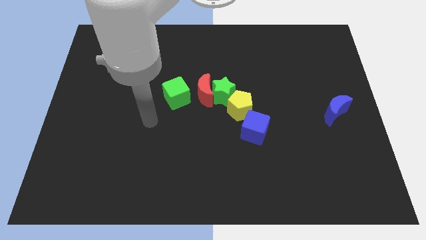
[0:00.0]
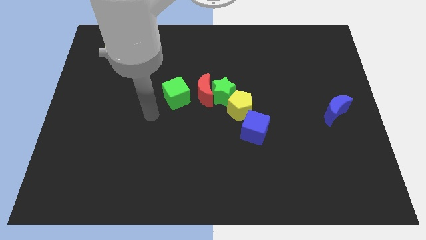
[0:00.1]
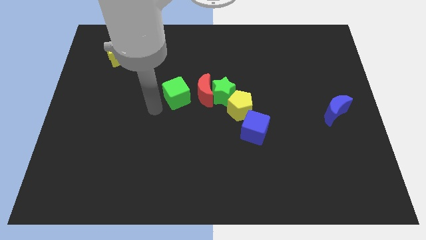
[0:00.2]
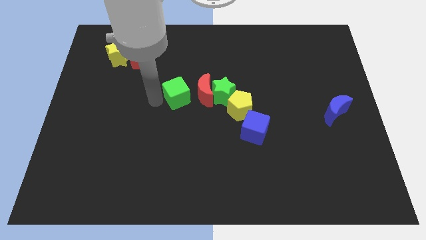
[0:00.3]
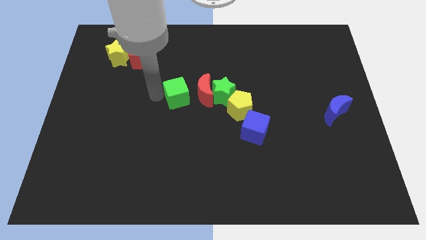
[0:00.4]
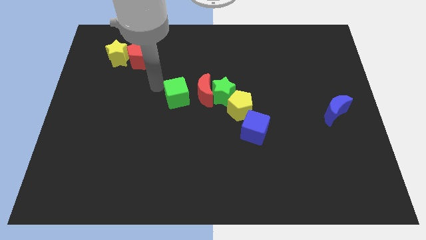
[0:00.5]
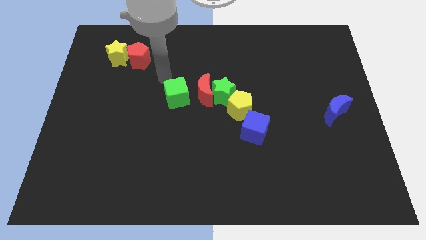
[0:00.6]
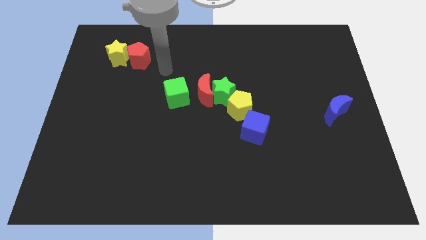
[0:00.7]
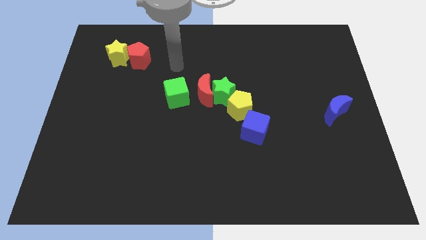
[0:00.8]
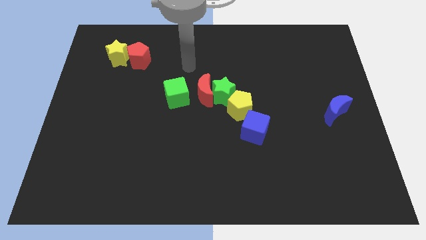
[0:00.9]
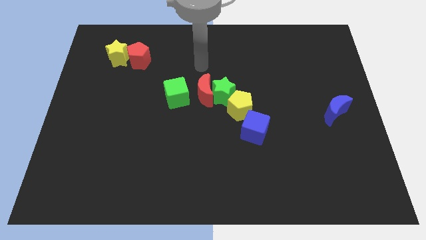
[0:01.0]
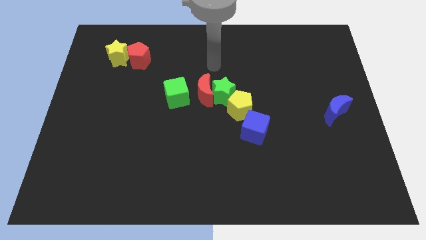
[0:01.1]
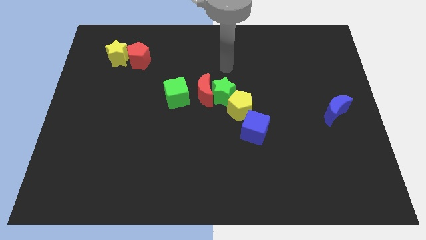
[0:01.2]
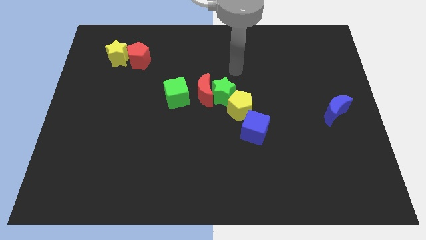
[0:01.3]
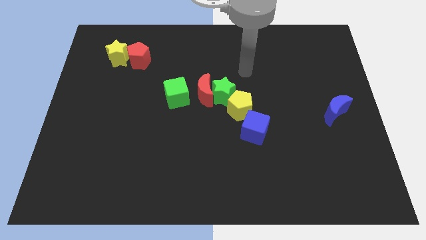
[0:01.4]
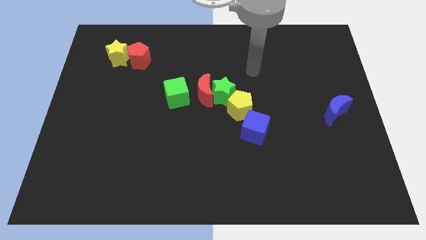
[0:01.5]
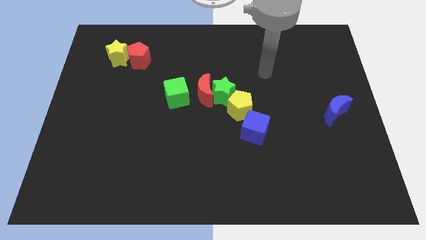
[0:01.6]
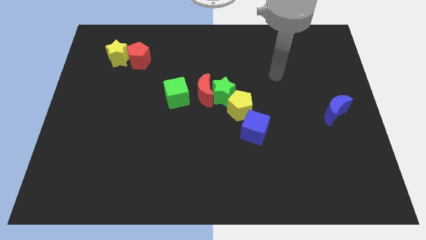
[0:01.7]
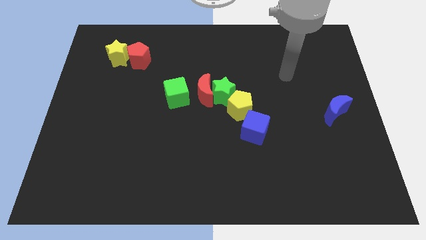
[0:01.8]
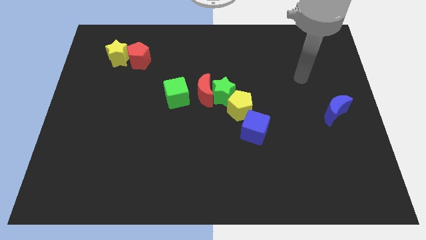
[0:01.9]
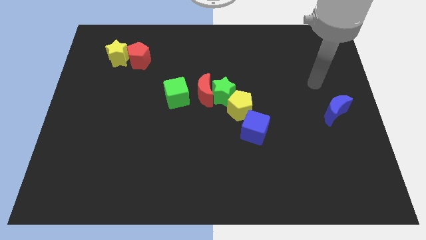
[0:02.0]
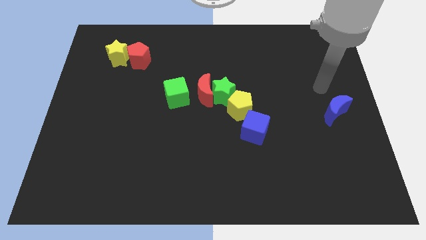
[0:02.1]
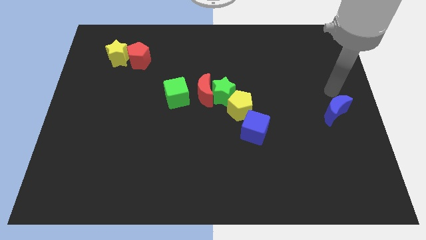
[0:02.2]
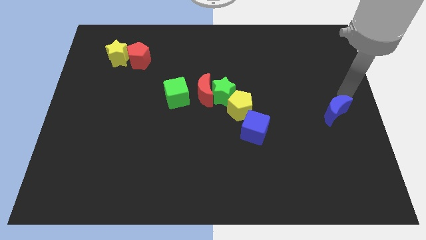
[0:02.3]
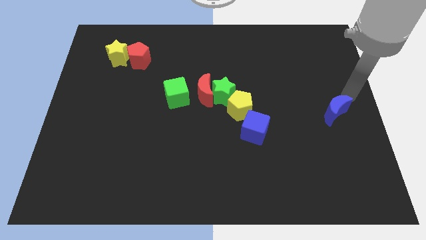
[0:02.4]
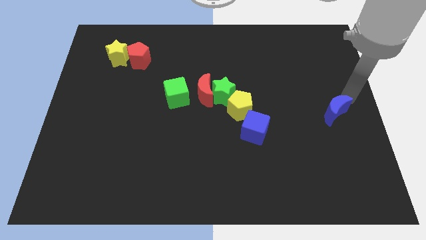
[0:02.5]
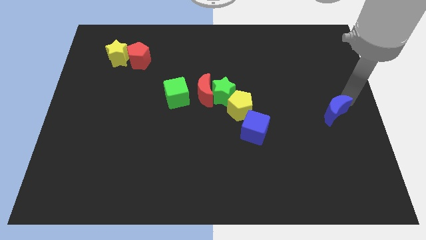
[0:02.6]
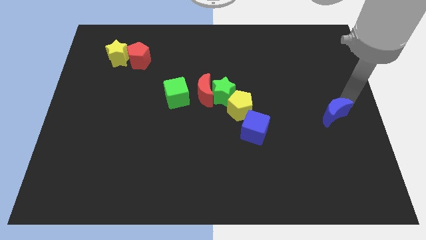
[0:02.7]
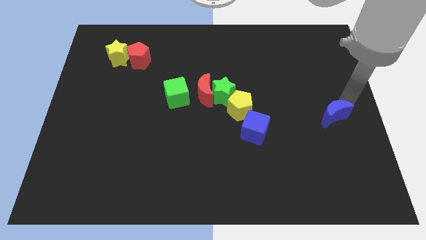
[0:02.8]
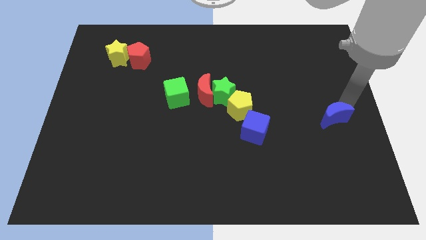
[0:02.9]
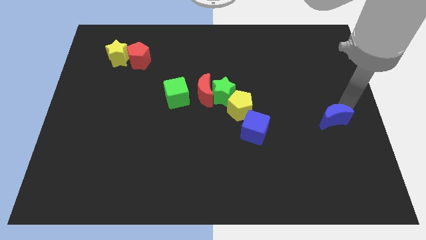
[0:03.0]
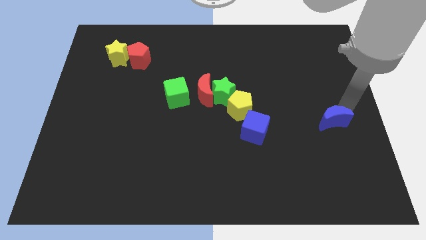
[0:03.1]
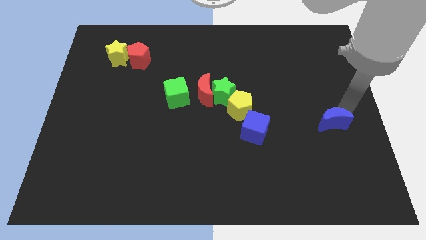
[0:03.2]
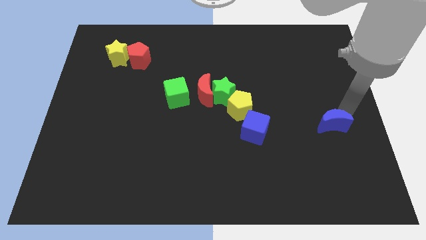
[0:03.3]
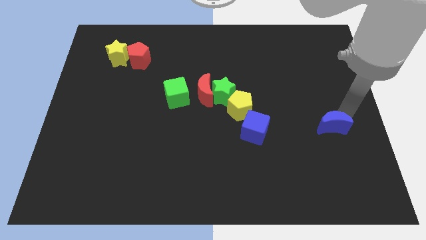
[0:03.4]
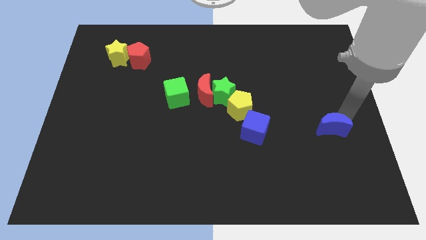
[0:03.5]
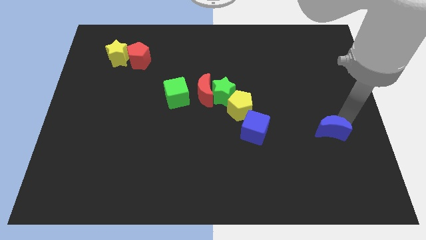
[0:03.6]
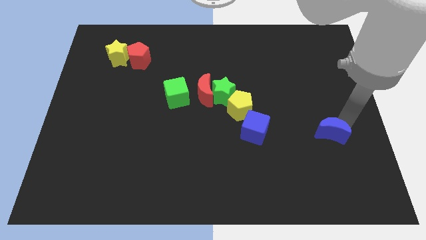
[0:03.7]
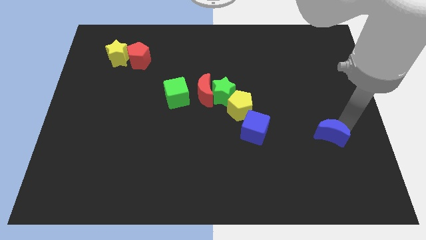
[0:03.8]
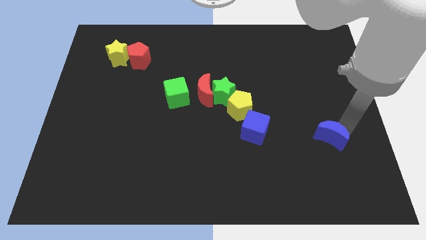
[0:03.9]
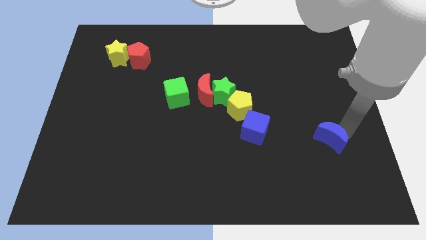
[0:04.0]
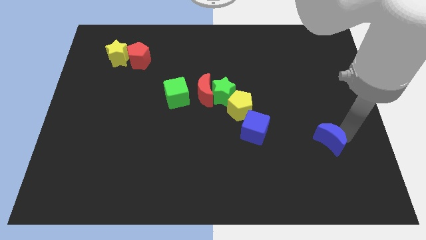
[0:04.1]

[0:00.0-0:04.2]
slightly slide the blue moon down and then to the left

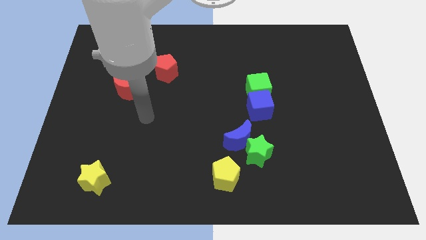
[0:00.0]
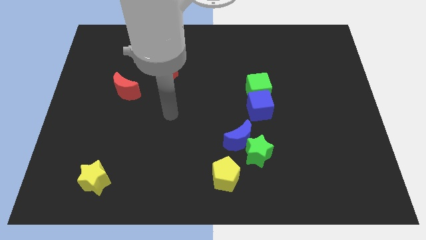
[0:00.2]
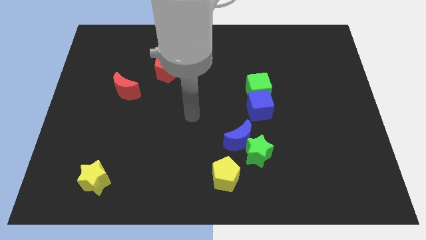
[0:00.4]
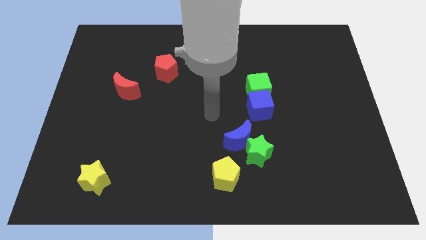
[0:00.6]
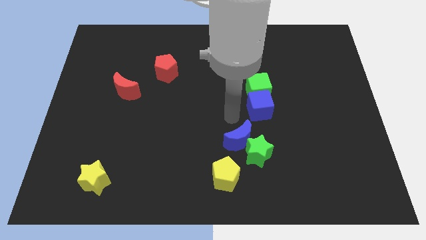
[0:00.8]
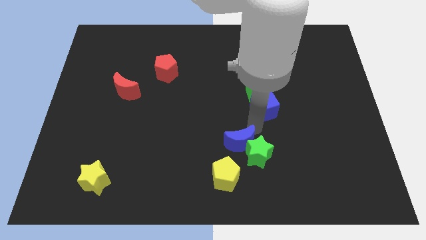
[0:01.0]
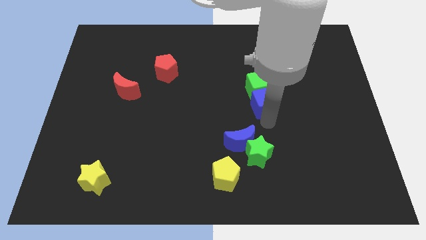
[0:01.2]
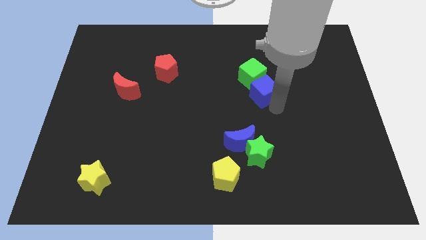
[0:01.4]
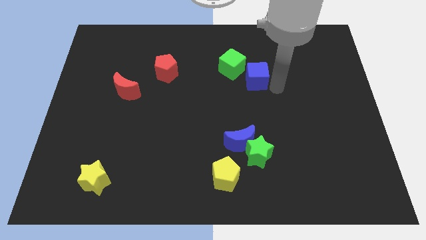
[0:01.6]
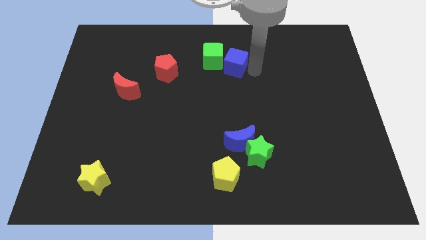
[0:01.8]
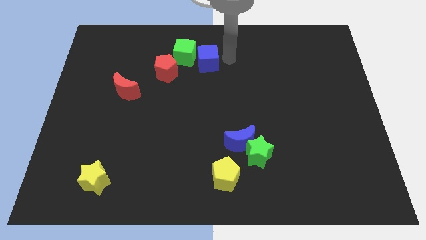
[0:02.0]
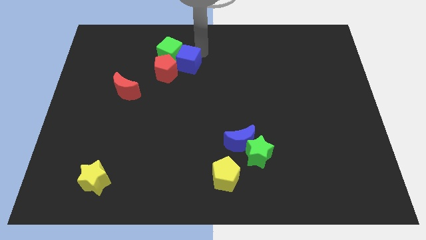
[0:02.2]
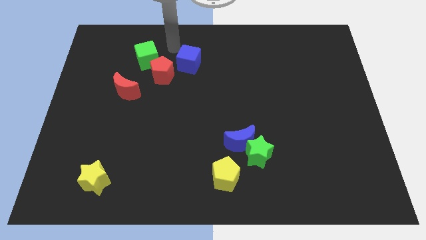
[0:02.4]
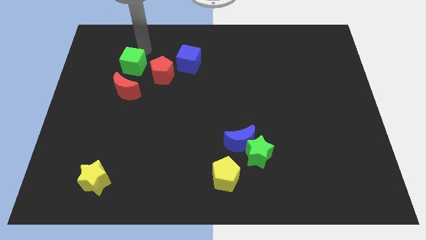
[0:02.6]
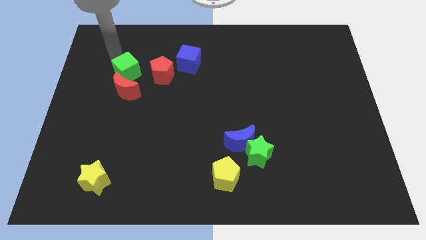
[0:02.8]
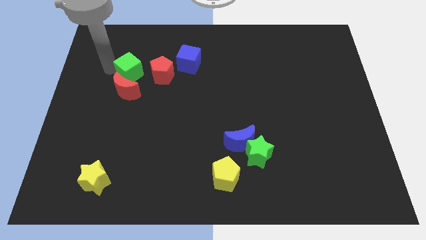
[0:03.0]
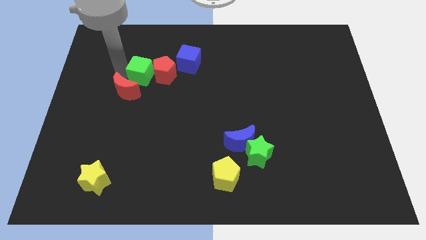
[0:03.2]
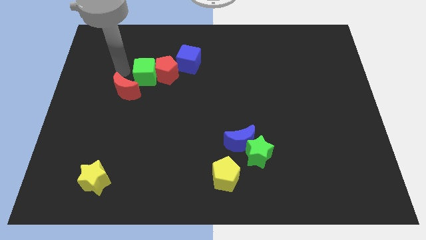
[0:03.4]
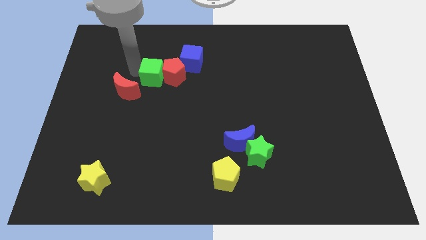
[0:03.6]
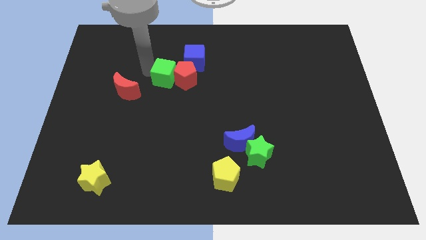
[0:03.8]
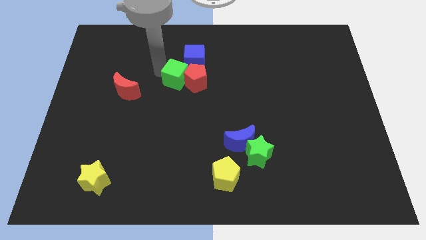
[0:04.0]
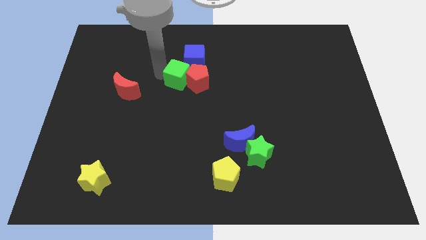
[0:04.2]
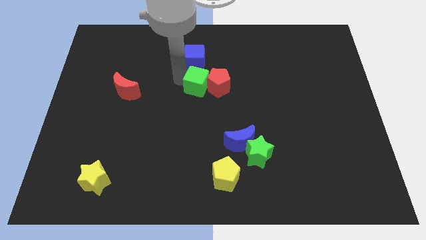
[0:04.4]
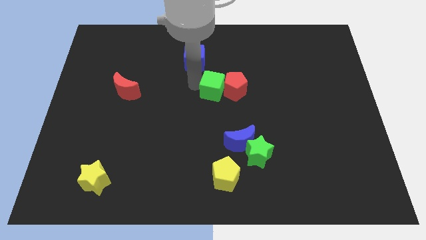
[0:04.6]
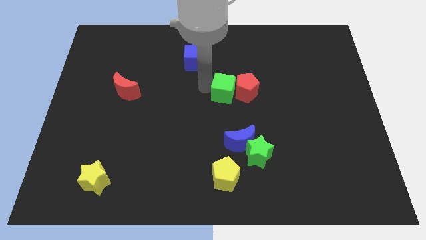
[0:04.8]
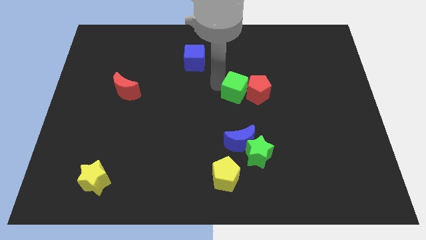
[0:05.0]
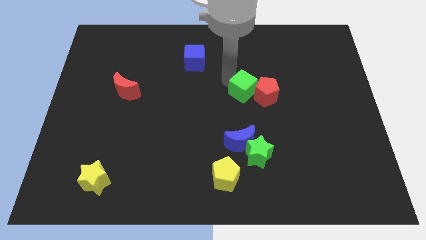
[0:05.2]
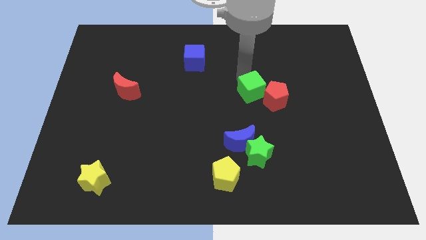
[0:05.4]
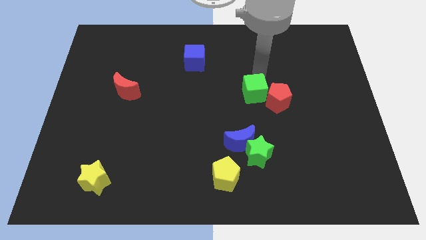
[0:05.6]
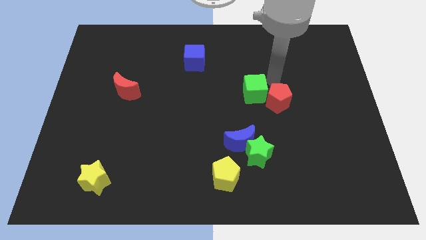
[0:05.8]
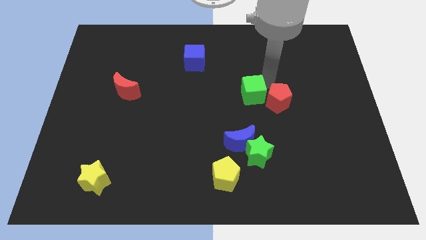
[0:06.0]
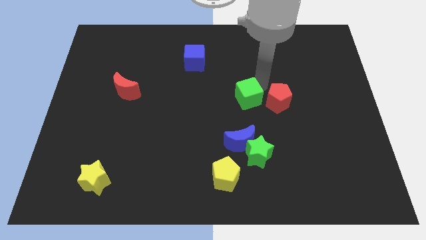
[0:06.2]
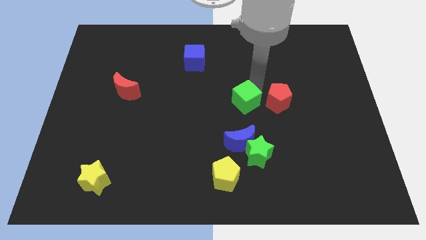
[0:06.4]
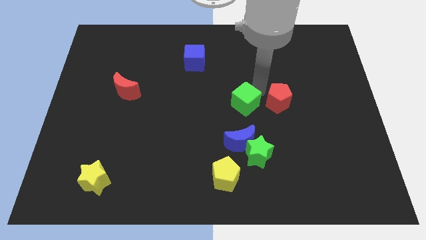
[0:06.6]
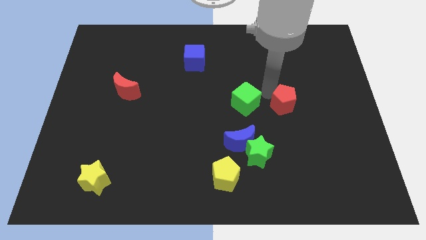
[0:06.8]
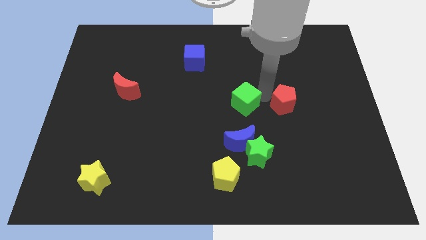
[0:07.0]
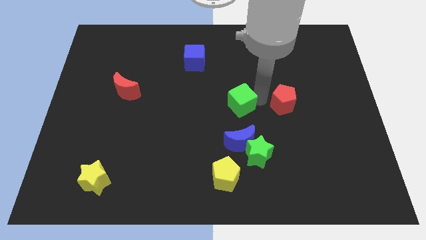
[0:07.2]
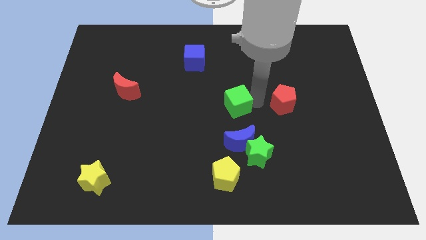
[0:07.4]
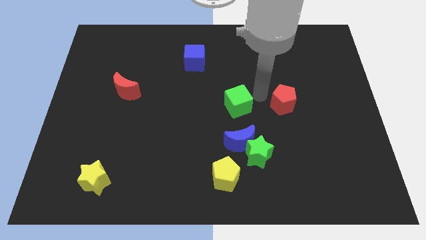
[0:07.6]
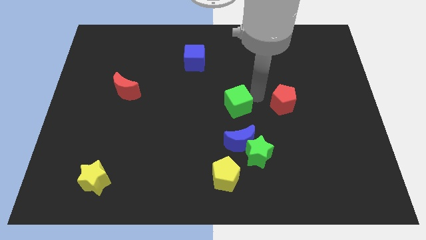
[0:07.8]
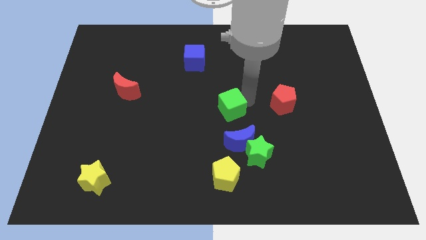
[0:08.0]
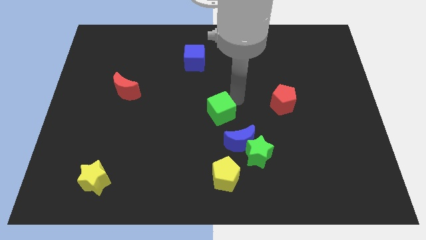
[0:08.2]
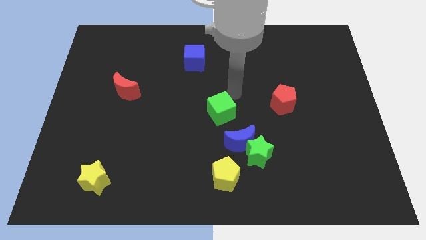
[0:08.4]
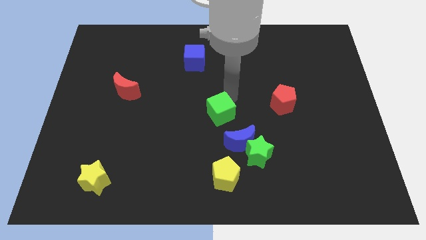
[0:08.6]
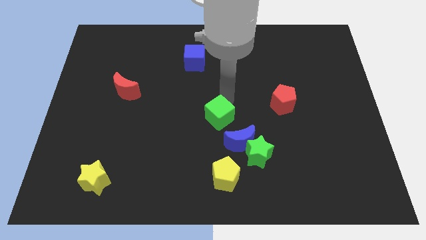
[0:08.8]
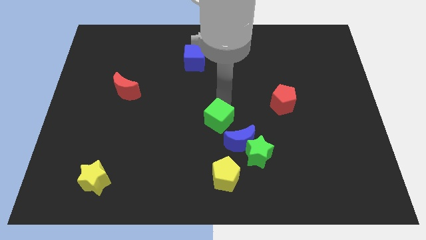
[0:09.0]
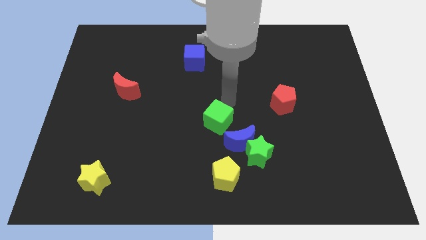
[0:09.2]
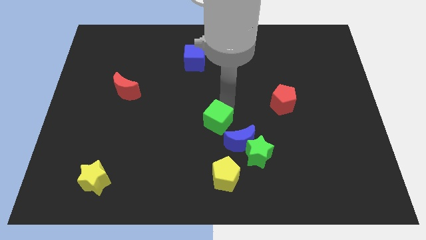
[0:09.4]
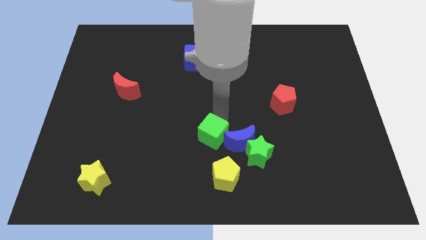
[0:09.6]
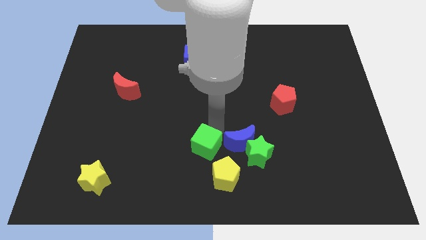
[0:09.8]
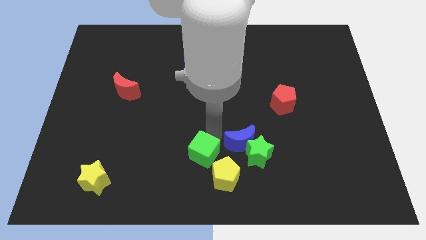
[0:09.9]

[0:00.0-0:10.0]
move the green cube downwards and left diagonally
